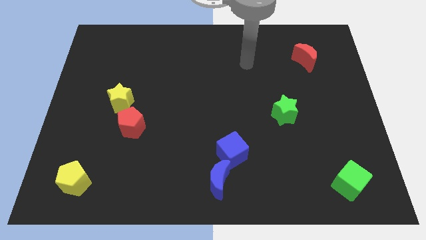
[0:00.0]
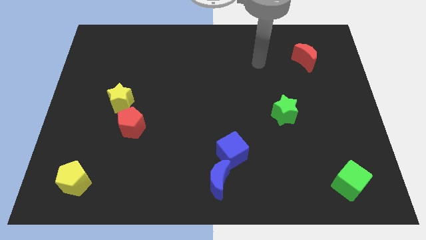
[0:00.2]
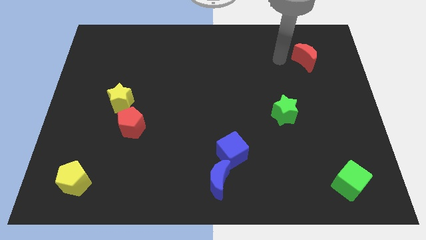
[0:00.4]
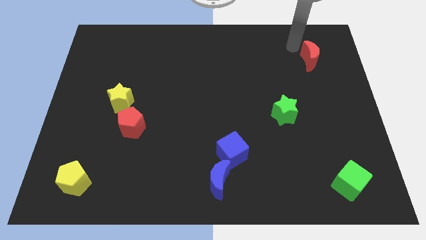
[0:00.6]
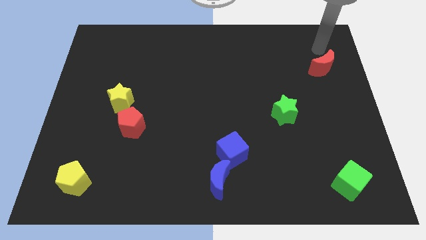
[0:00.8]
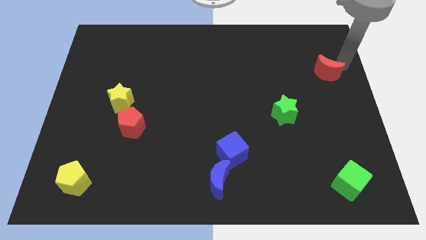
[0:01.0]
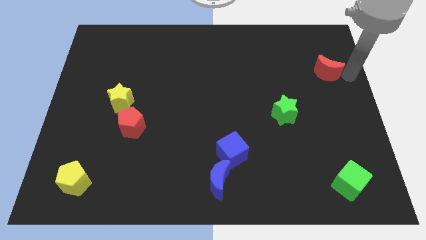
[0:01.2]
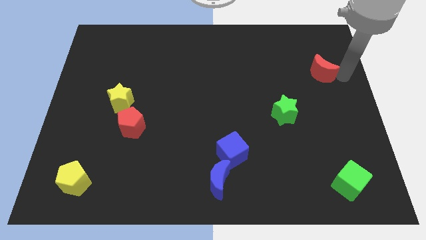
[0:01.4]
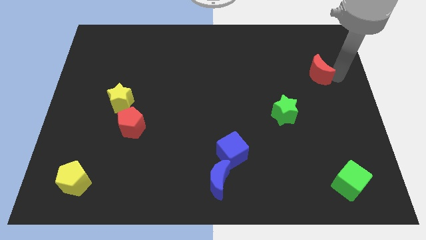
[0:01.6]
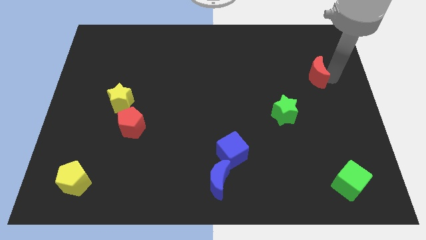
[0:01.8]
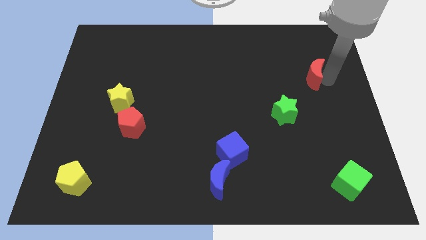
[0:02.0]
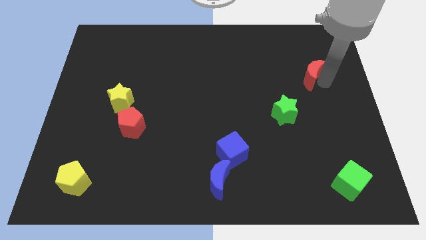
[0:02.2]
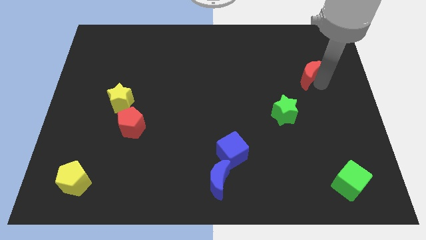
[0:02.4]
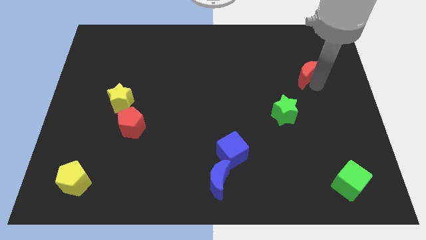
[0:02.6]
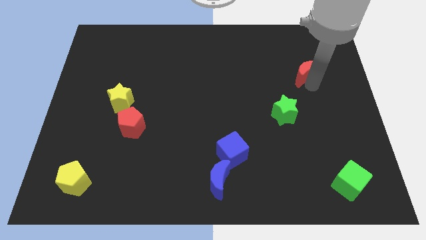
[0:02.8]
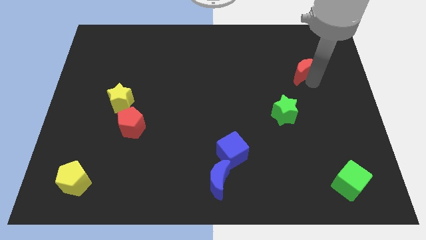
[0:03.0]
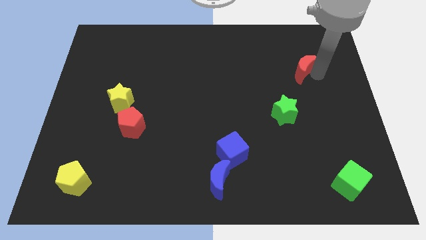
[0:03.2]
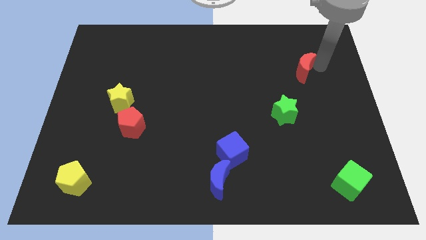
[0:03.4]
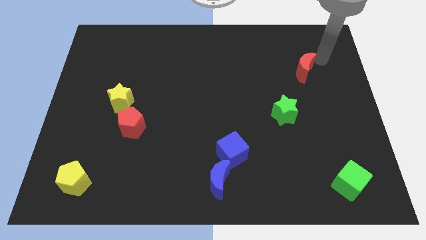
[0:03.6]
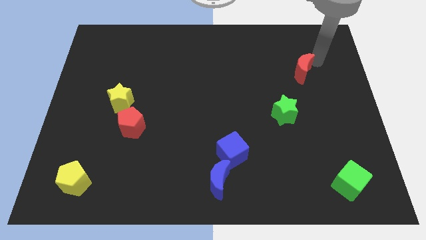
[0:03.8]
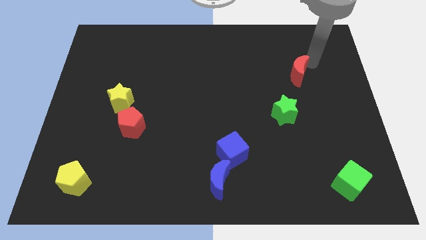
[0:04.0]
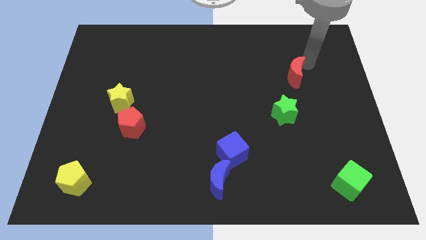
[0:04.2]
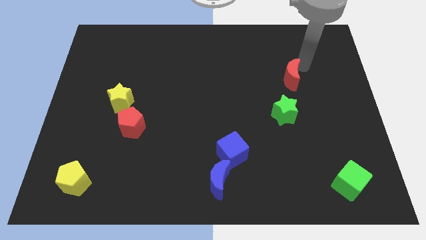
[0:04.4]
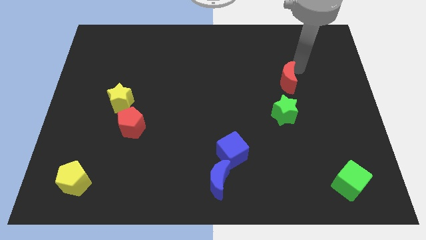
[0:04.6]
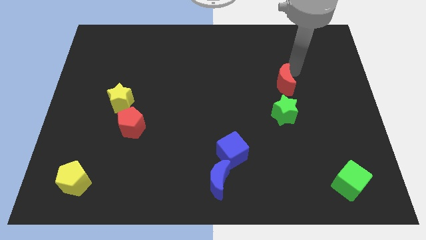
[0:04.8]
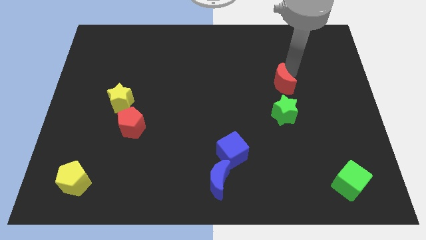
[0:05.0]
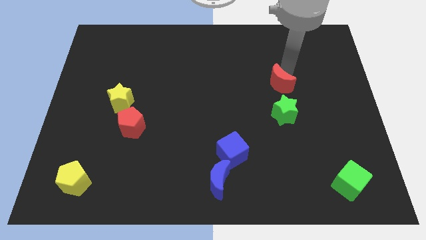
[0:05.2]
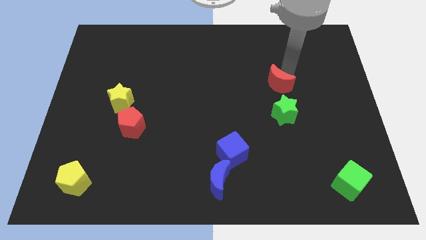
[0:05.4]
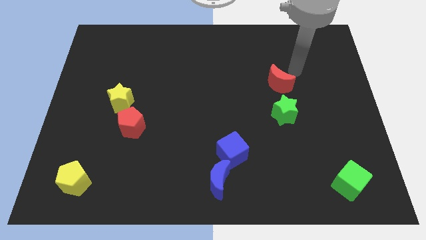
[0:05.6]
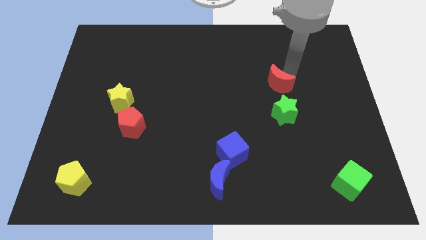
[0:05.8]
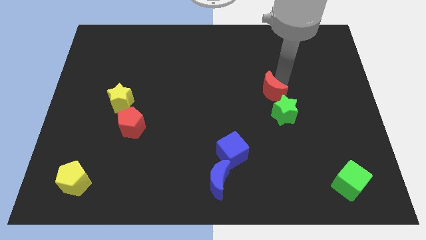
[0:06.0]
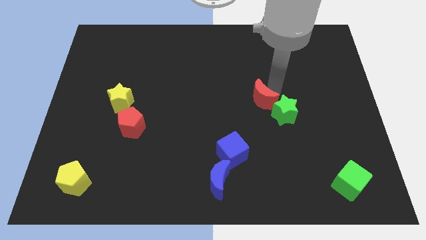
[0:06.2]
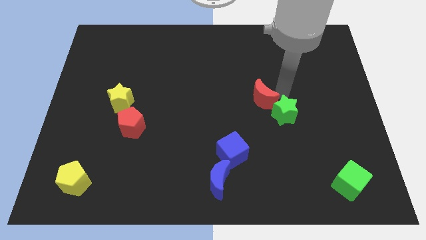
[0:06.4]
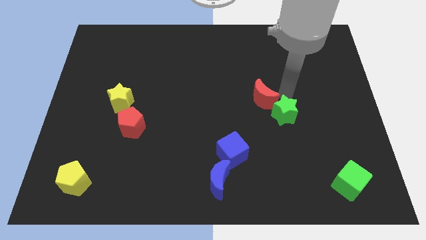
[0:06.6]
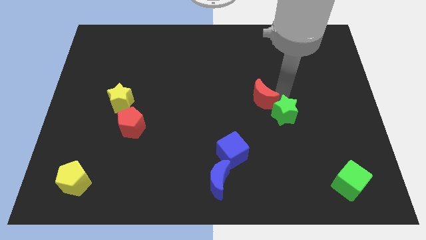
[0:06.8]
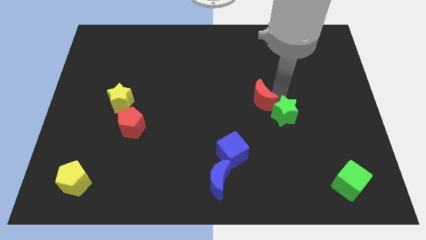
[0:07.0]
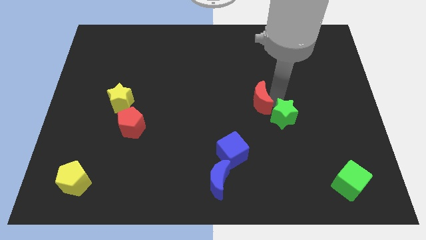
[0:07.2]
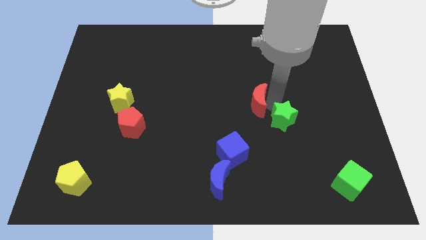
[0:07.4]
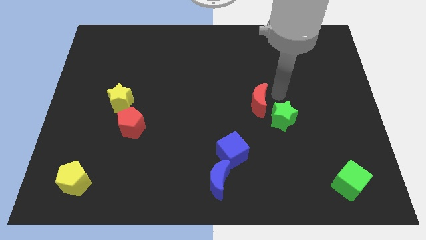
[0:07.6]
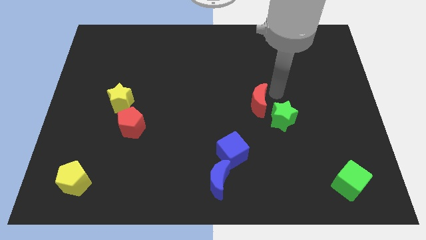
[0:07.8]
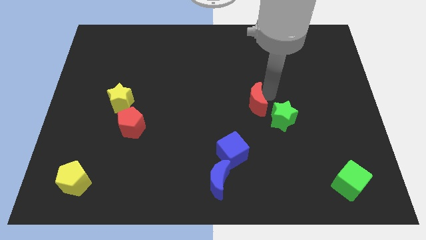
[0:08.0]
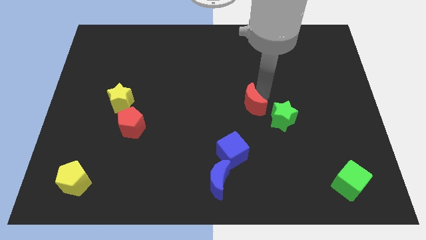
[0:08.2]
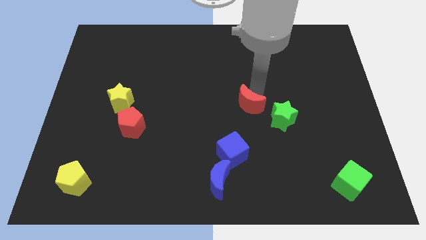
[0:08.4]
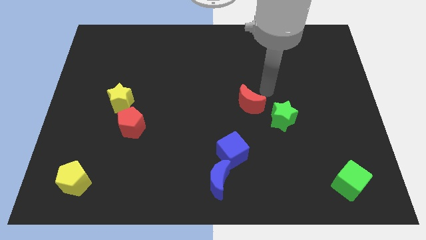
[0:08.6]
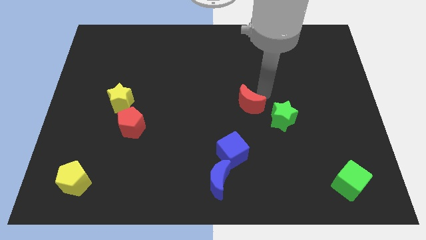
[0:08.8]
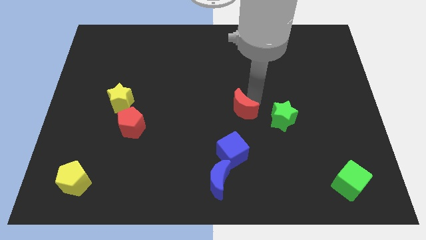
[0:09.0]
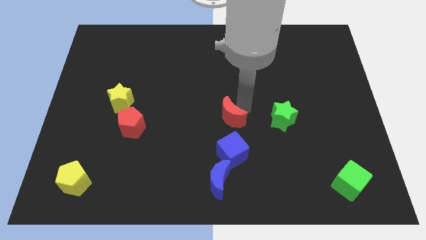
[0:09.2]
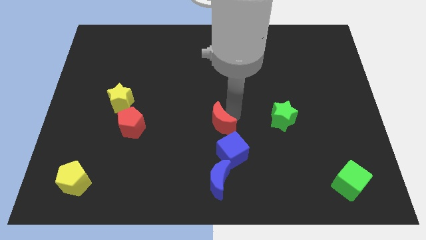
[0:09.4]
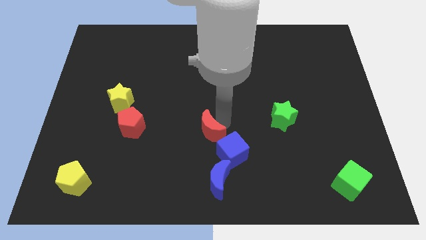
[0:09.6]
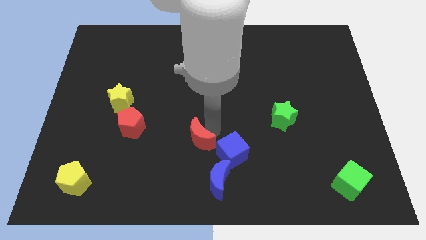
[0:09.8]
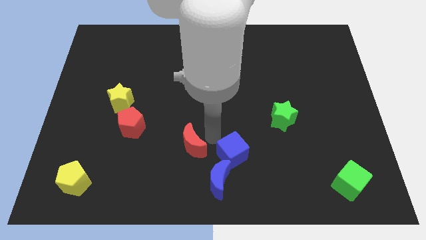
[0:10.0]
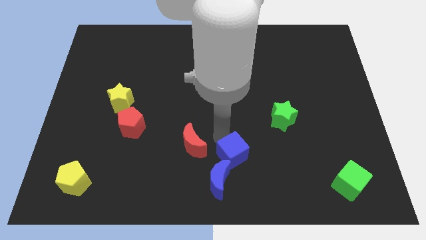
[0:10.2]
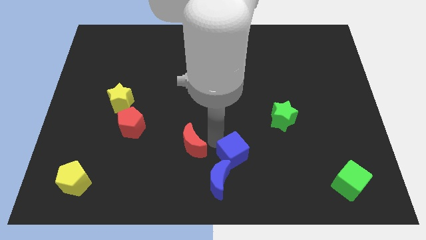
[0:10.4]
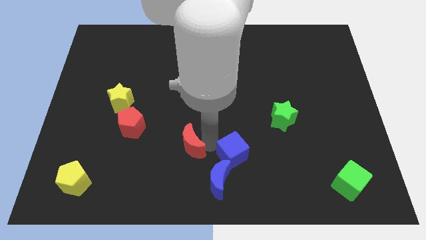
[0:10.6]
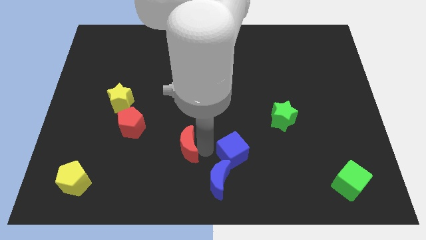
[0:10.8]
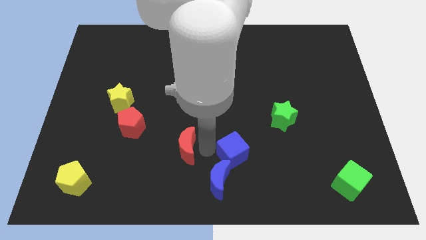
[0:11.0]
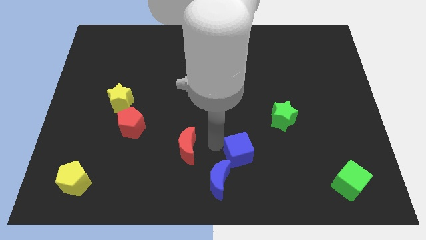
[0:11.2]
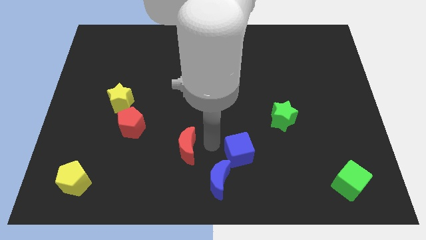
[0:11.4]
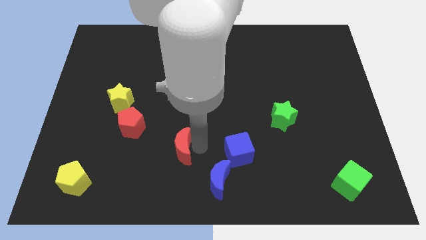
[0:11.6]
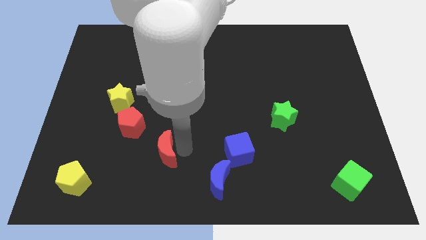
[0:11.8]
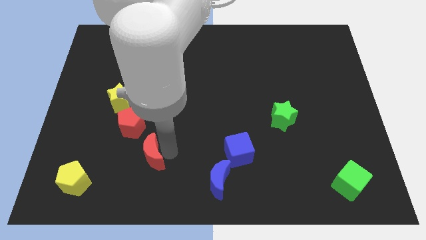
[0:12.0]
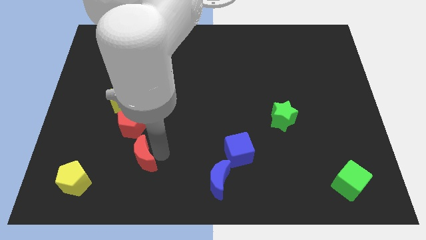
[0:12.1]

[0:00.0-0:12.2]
move the red moon to the bottom side of the red pentagon

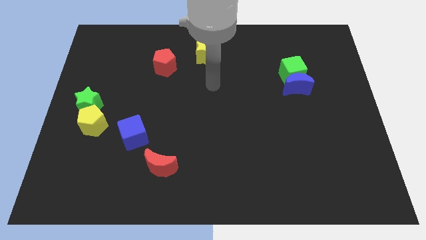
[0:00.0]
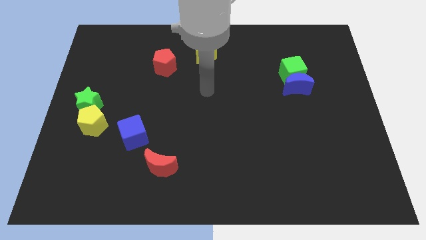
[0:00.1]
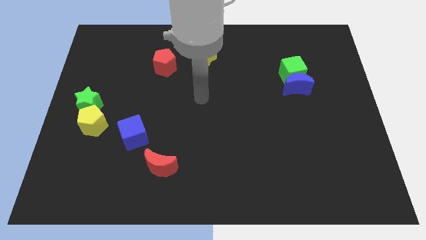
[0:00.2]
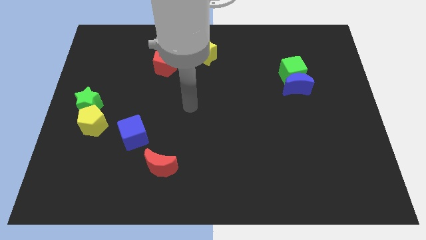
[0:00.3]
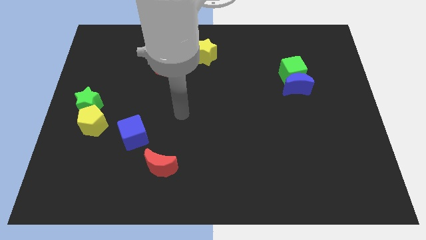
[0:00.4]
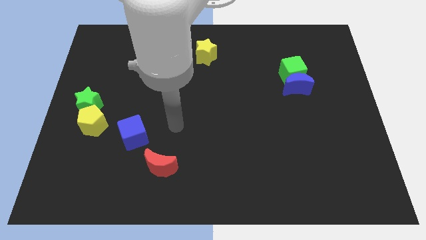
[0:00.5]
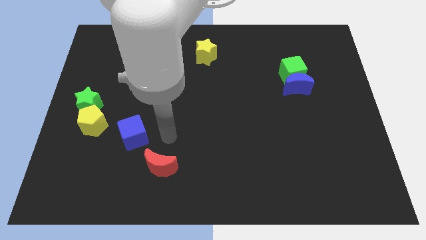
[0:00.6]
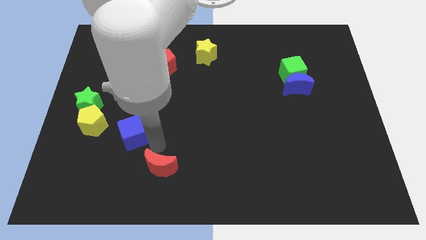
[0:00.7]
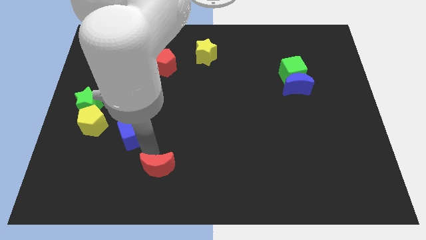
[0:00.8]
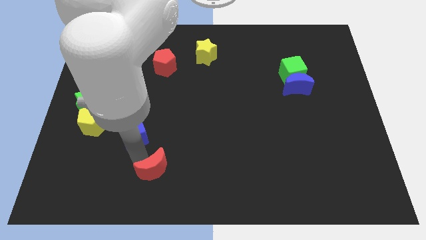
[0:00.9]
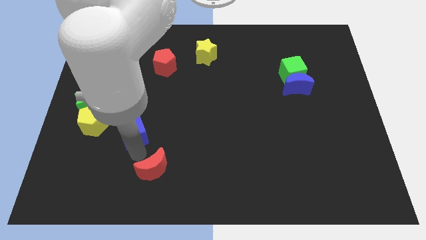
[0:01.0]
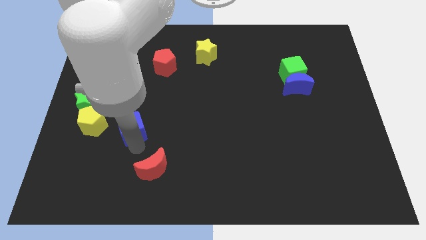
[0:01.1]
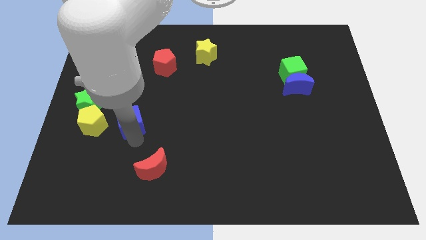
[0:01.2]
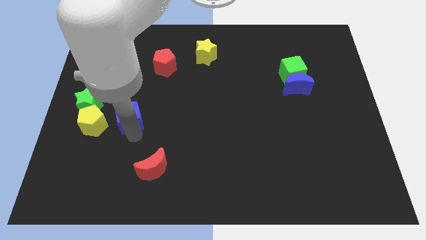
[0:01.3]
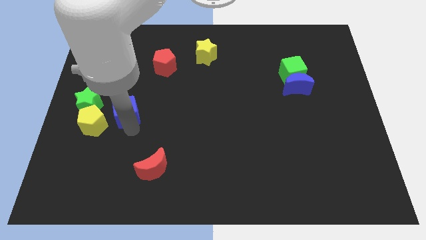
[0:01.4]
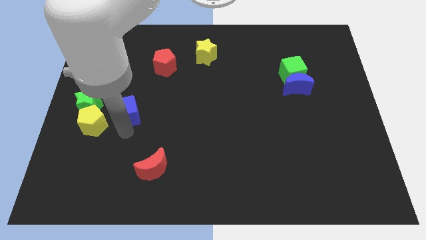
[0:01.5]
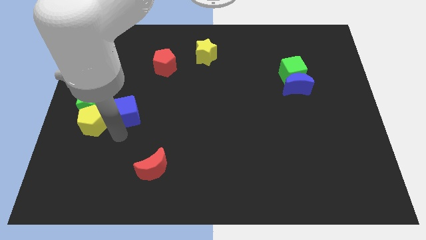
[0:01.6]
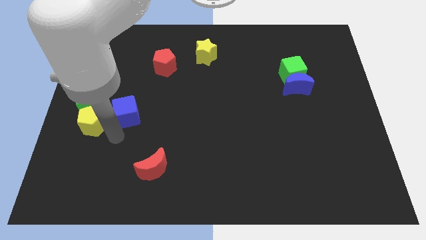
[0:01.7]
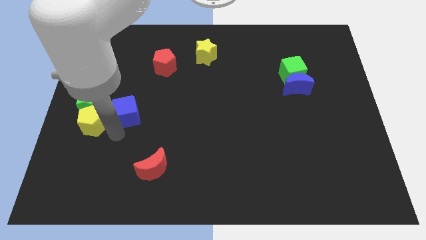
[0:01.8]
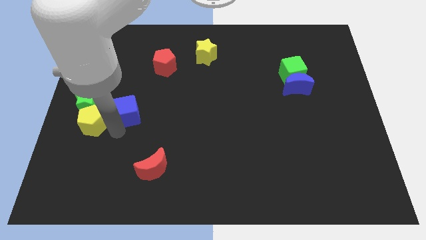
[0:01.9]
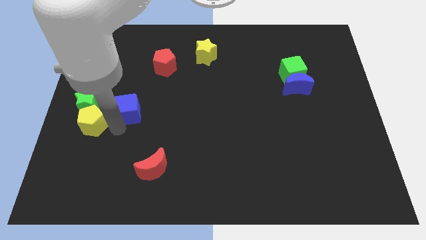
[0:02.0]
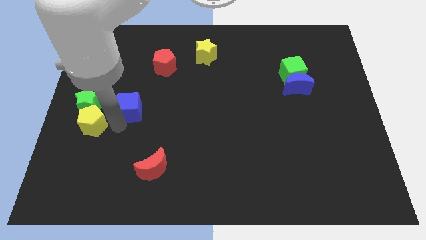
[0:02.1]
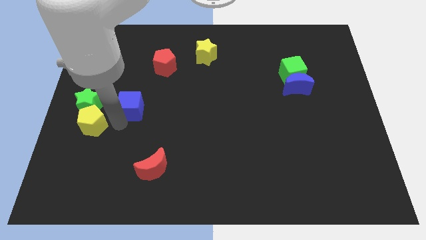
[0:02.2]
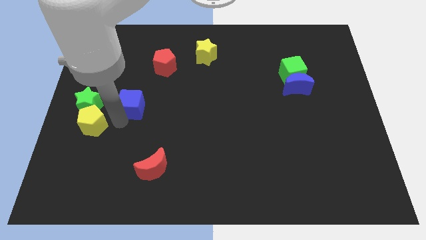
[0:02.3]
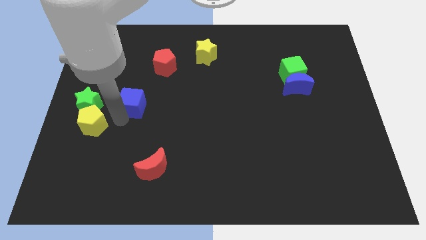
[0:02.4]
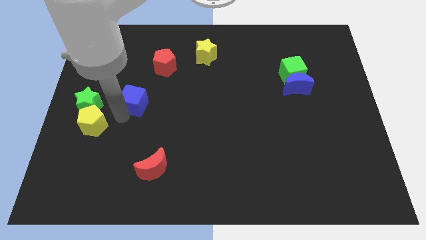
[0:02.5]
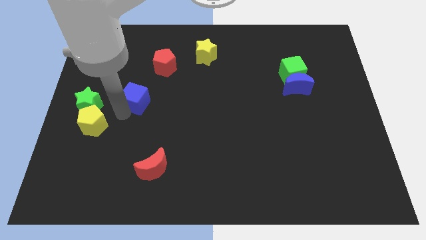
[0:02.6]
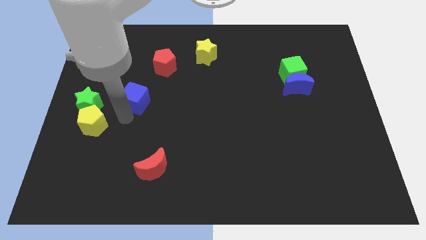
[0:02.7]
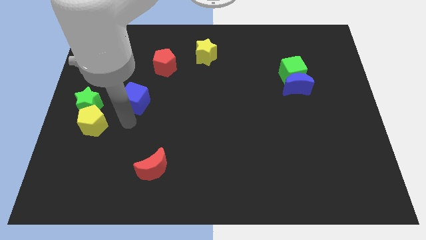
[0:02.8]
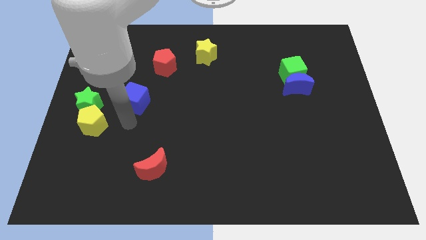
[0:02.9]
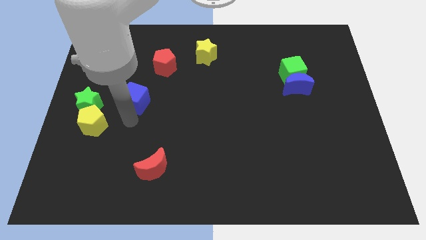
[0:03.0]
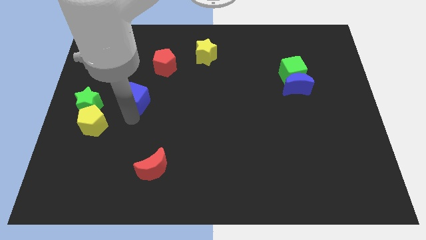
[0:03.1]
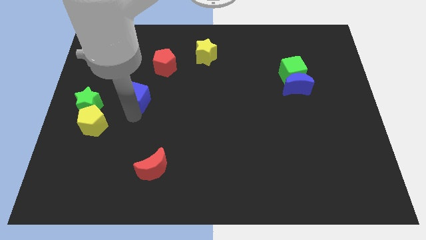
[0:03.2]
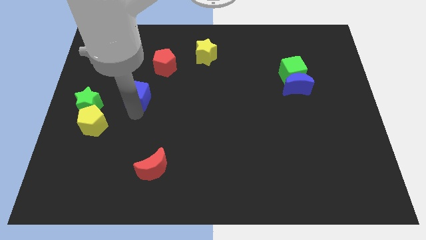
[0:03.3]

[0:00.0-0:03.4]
move the blue cube diagonally down and to the left of the red pentagon
